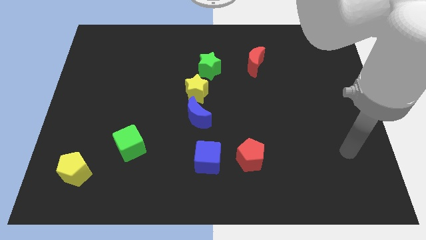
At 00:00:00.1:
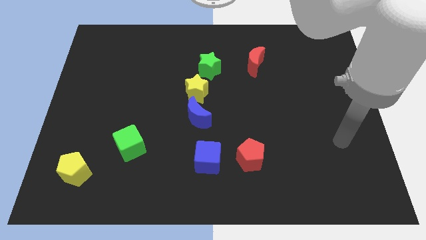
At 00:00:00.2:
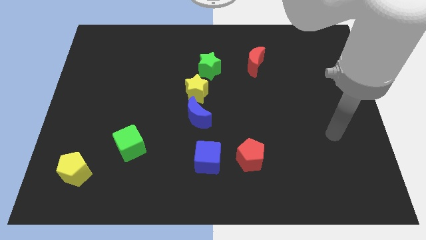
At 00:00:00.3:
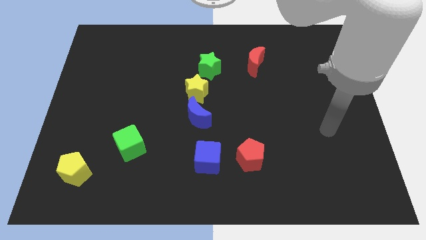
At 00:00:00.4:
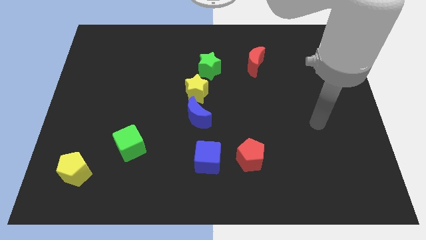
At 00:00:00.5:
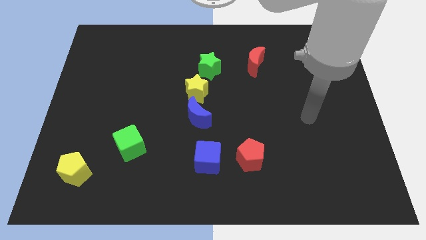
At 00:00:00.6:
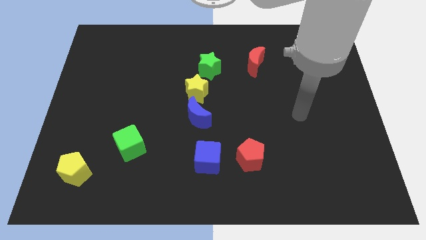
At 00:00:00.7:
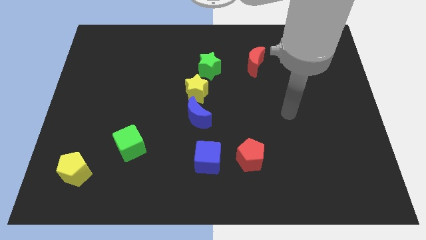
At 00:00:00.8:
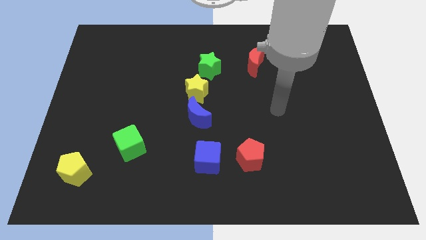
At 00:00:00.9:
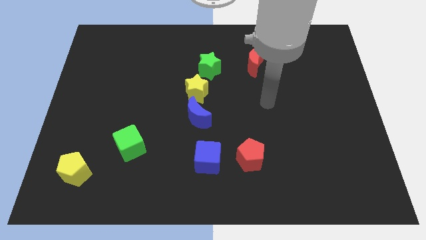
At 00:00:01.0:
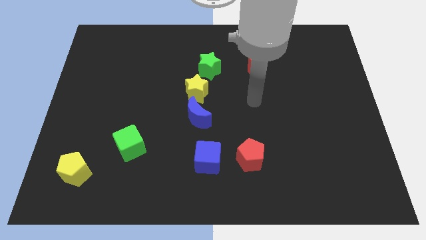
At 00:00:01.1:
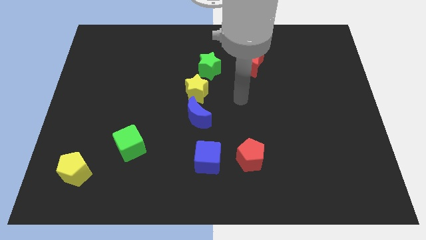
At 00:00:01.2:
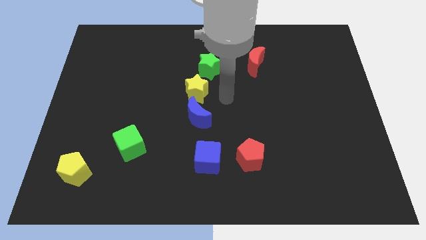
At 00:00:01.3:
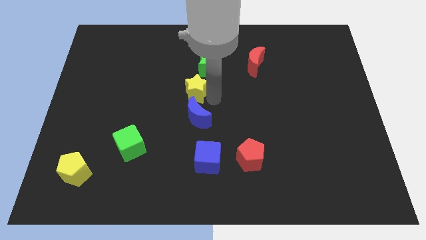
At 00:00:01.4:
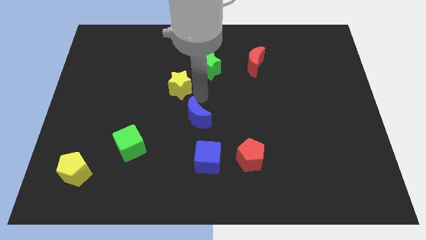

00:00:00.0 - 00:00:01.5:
separate the blue moon from the yellow star

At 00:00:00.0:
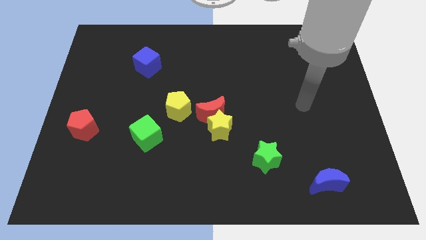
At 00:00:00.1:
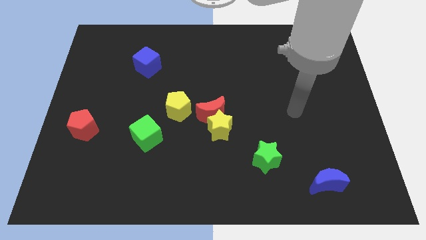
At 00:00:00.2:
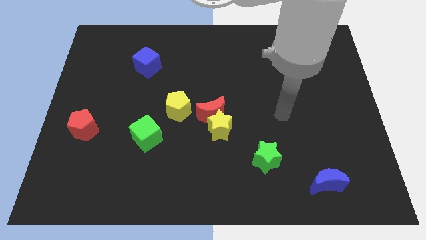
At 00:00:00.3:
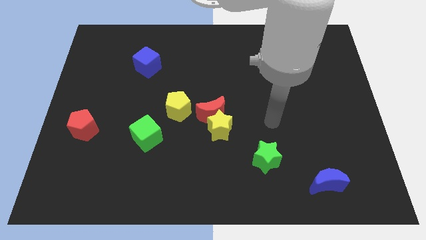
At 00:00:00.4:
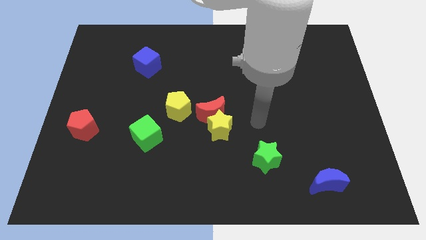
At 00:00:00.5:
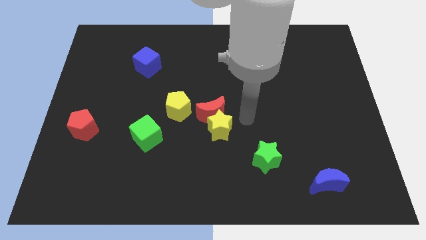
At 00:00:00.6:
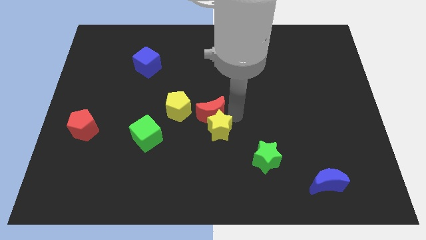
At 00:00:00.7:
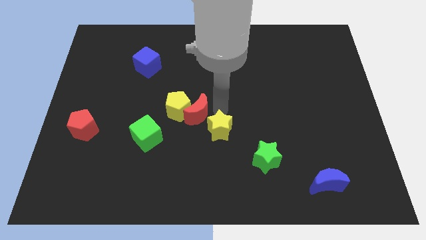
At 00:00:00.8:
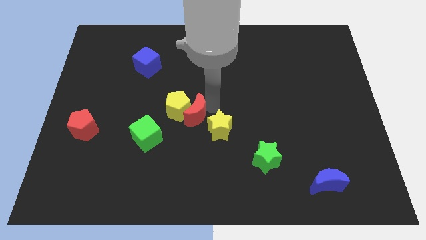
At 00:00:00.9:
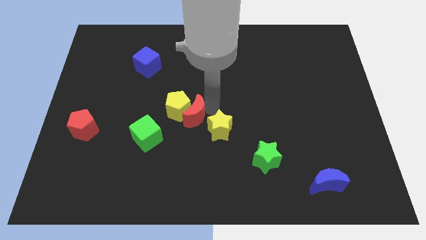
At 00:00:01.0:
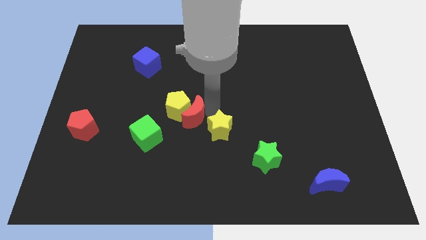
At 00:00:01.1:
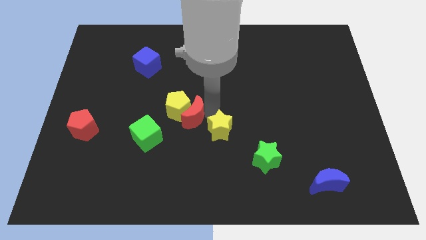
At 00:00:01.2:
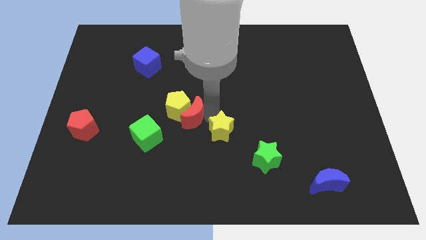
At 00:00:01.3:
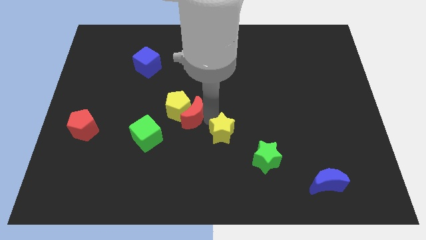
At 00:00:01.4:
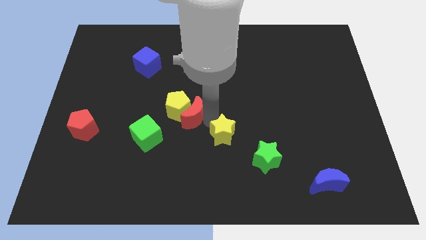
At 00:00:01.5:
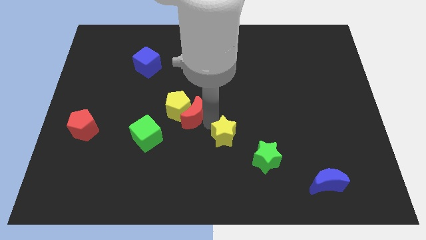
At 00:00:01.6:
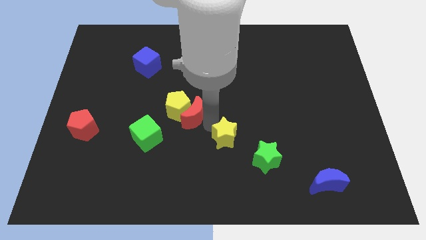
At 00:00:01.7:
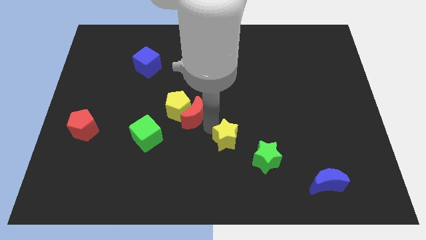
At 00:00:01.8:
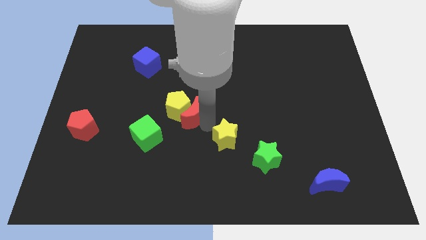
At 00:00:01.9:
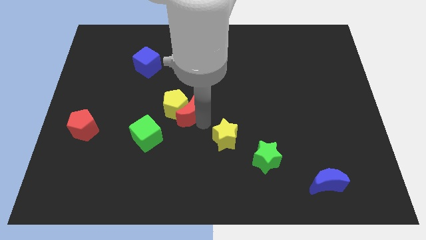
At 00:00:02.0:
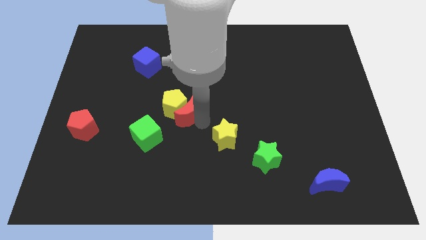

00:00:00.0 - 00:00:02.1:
pull the yellow star apart from the red moon

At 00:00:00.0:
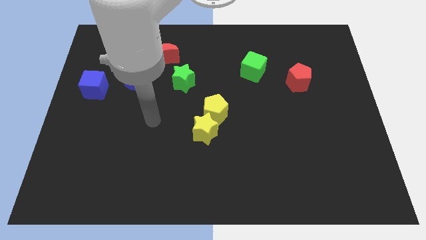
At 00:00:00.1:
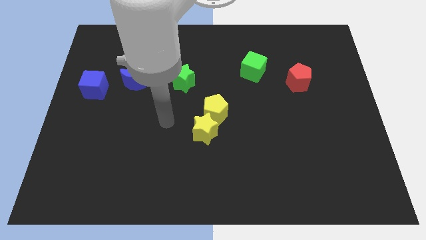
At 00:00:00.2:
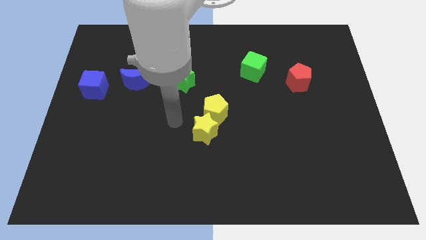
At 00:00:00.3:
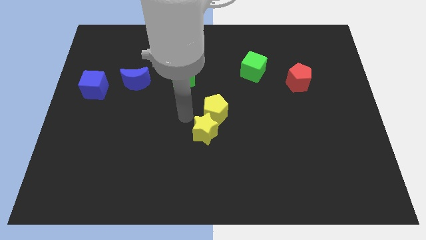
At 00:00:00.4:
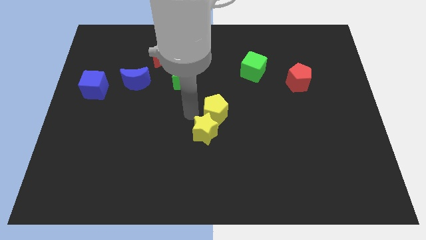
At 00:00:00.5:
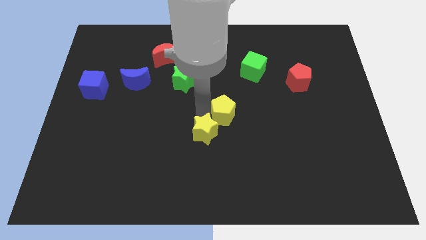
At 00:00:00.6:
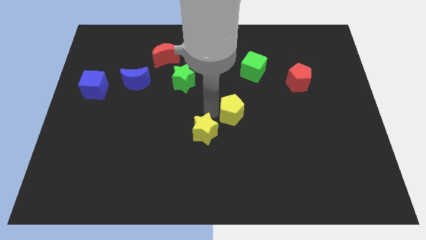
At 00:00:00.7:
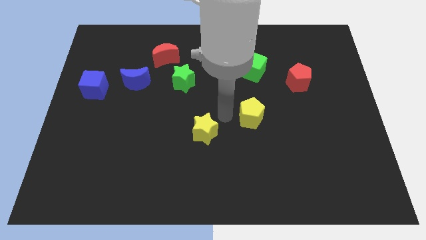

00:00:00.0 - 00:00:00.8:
separate the yellow star from the yellow pentagon

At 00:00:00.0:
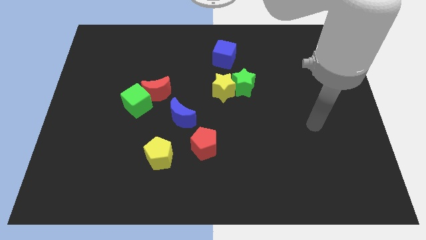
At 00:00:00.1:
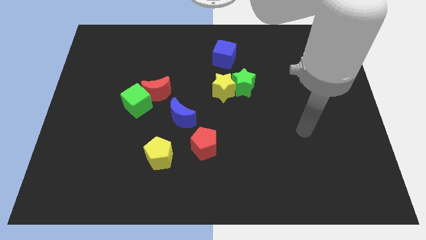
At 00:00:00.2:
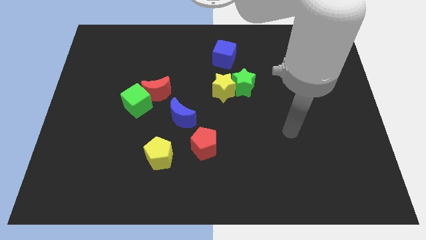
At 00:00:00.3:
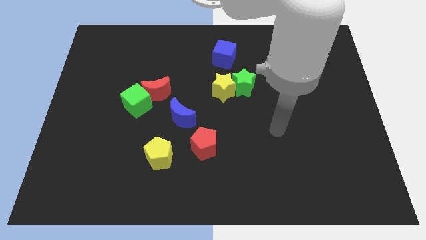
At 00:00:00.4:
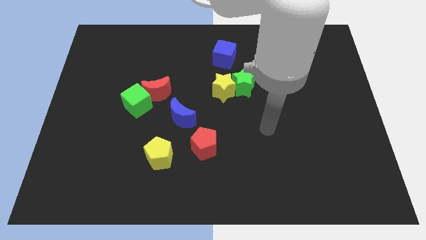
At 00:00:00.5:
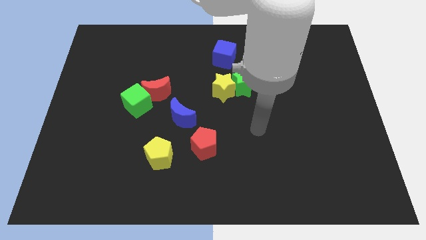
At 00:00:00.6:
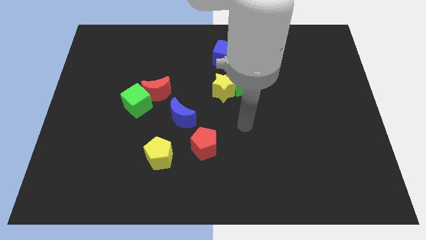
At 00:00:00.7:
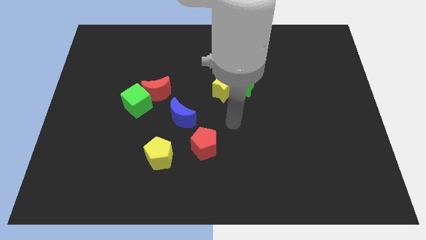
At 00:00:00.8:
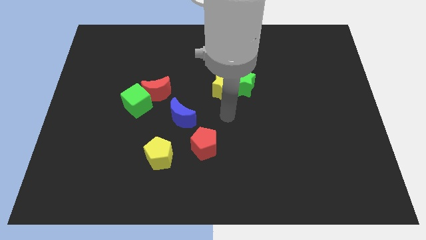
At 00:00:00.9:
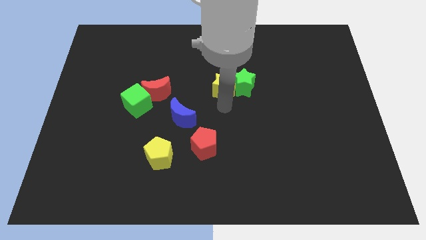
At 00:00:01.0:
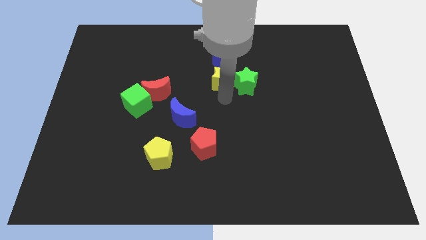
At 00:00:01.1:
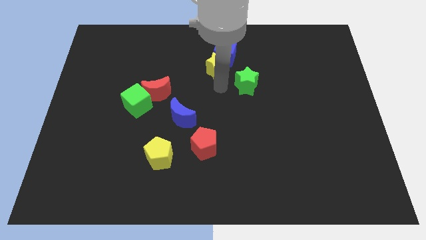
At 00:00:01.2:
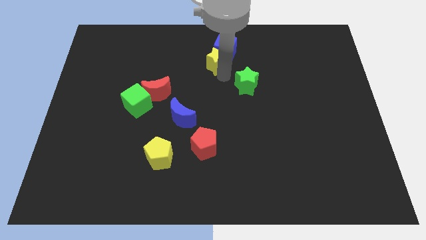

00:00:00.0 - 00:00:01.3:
move the green star away from the yellow star

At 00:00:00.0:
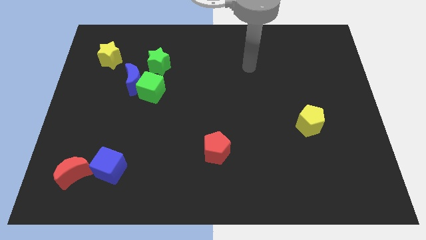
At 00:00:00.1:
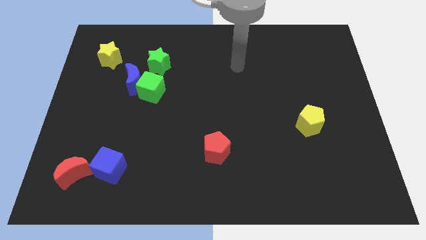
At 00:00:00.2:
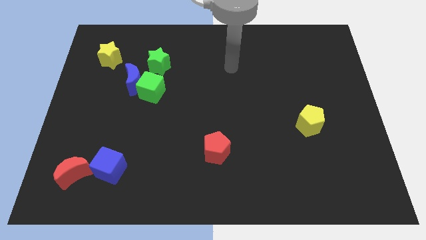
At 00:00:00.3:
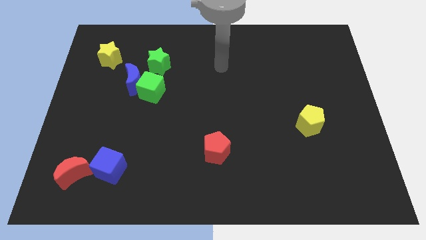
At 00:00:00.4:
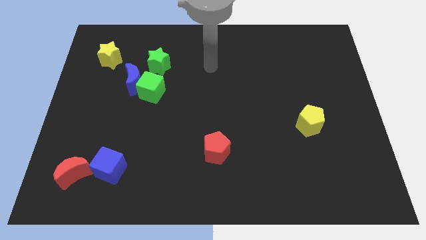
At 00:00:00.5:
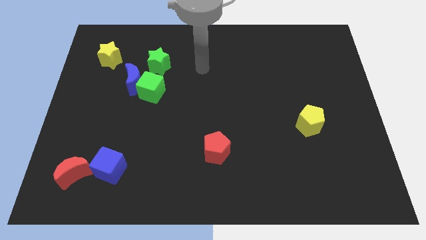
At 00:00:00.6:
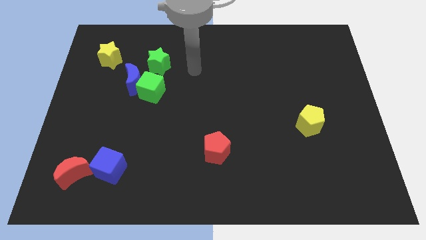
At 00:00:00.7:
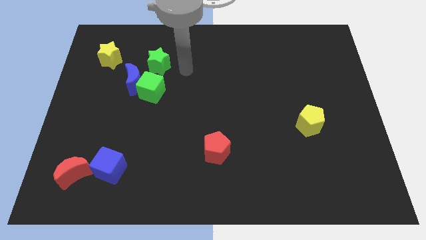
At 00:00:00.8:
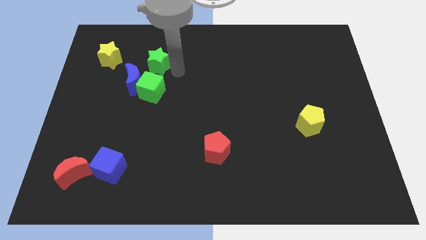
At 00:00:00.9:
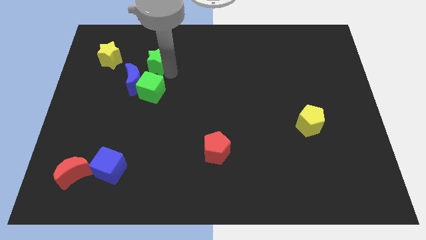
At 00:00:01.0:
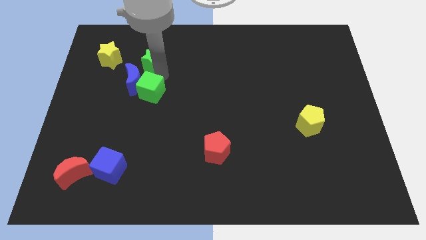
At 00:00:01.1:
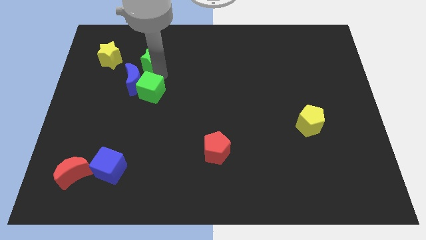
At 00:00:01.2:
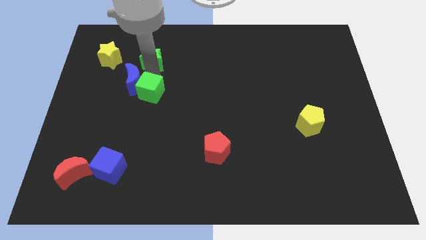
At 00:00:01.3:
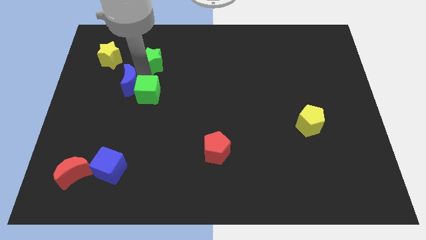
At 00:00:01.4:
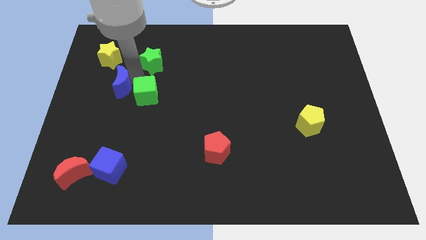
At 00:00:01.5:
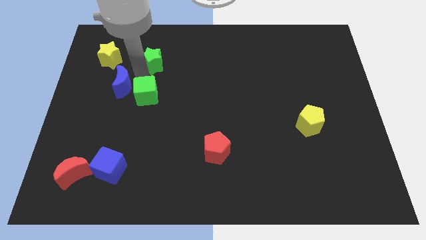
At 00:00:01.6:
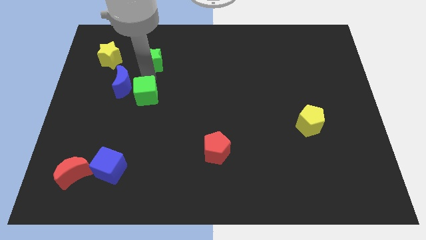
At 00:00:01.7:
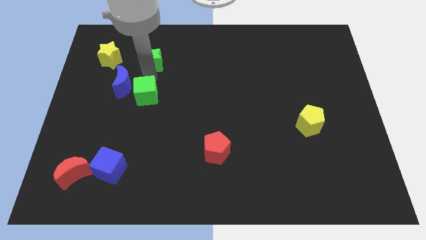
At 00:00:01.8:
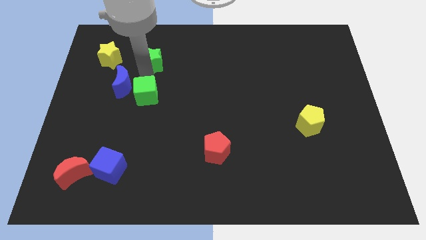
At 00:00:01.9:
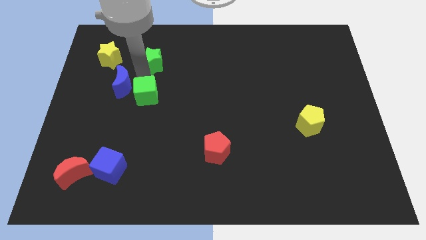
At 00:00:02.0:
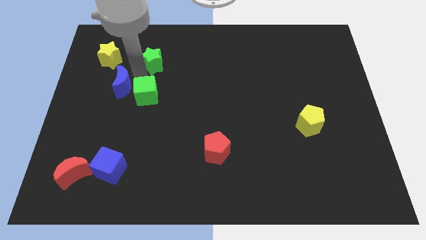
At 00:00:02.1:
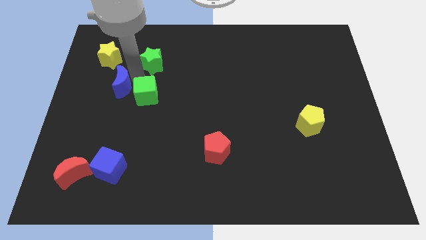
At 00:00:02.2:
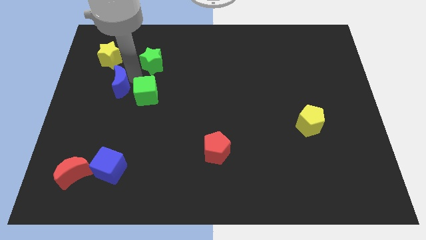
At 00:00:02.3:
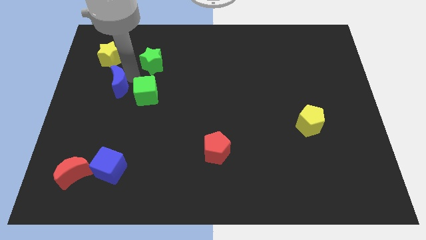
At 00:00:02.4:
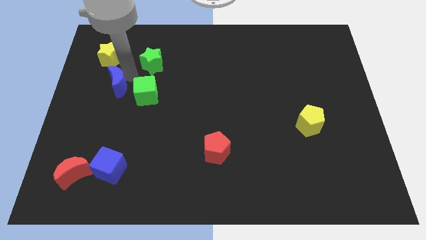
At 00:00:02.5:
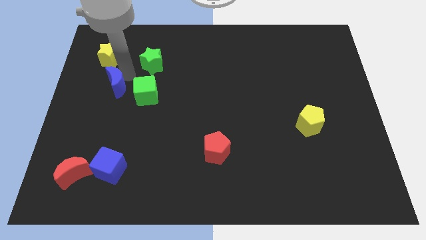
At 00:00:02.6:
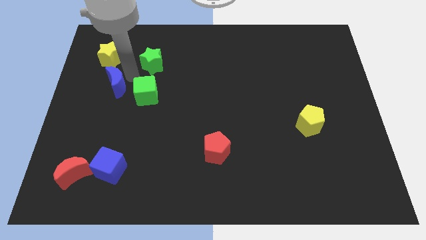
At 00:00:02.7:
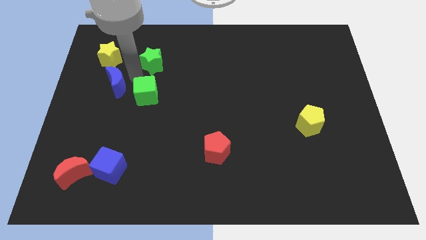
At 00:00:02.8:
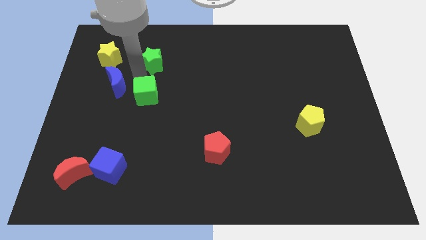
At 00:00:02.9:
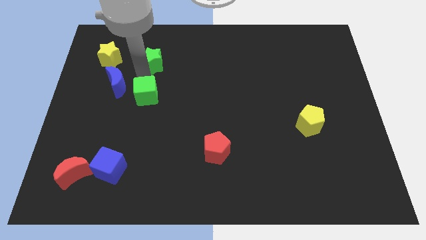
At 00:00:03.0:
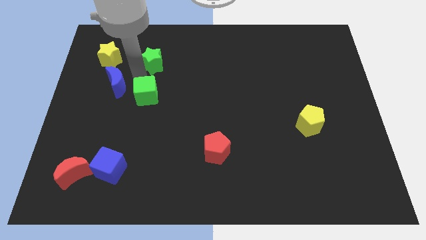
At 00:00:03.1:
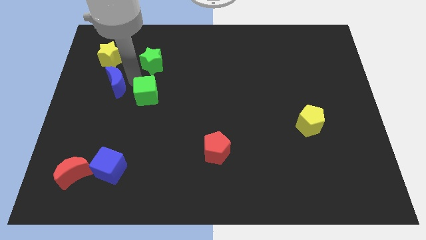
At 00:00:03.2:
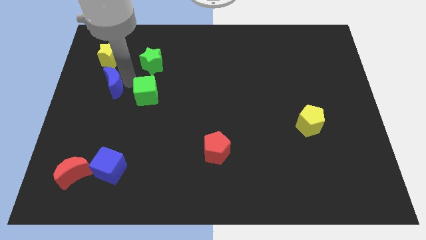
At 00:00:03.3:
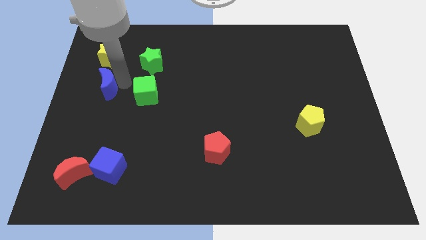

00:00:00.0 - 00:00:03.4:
move the blue moon away from the green cube and green star

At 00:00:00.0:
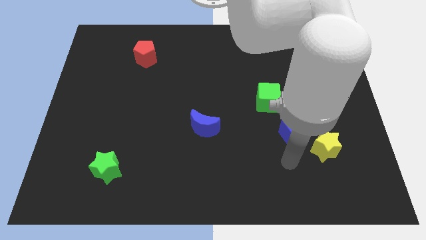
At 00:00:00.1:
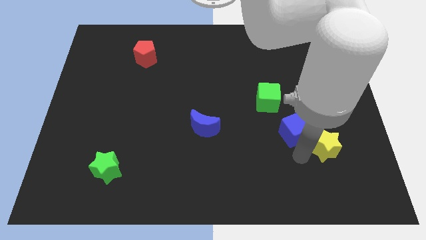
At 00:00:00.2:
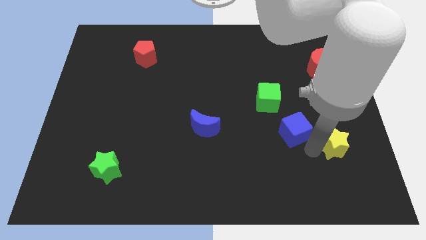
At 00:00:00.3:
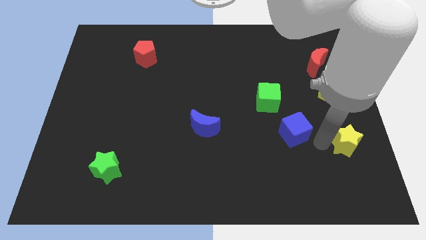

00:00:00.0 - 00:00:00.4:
separate the blue cube from the yellow star
